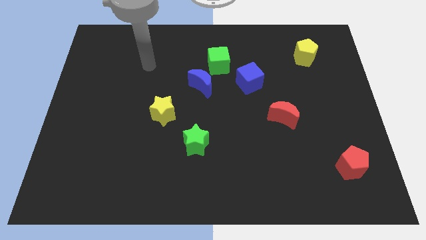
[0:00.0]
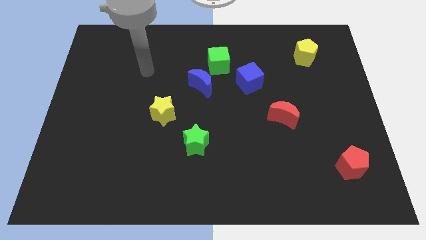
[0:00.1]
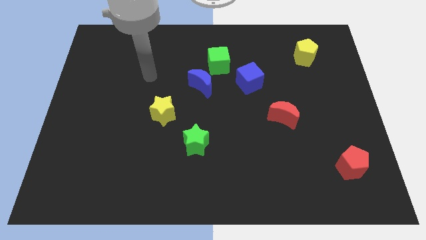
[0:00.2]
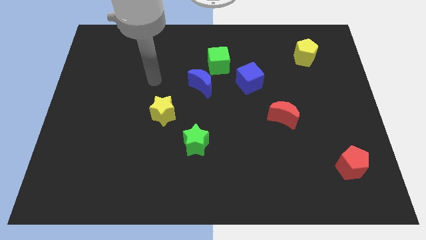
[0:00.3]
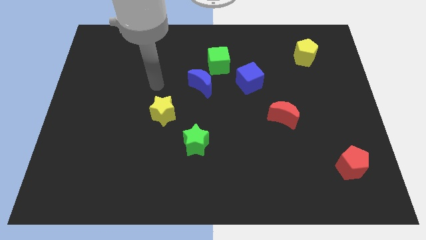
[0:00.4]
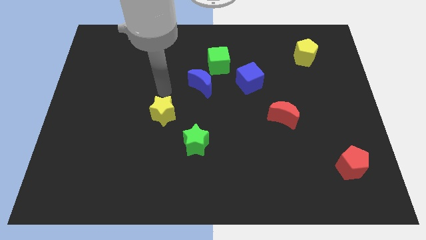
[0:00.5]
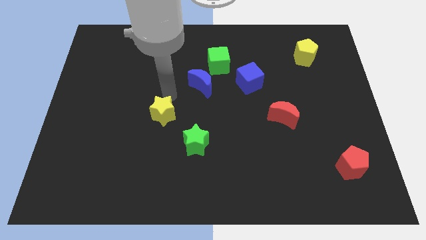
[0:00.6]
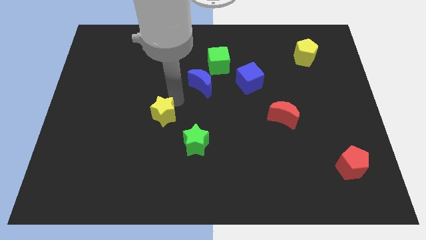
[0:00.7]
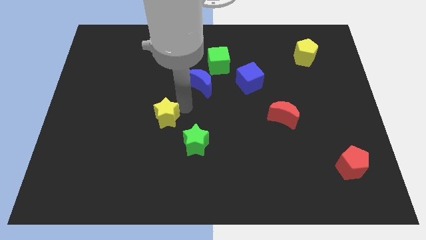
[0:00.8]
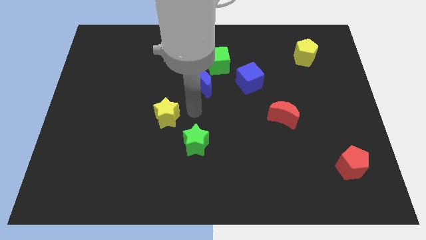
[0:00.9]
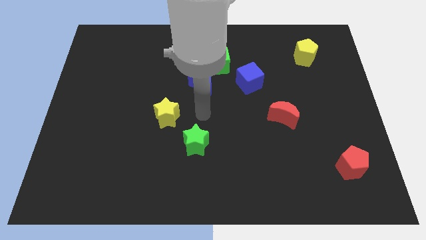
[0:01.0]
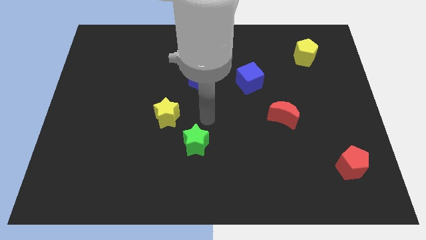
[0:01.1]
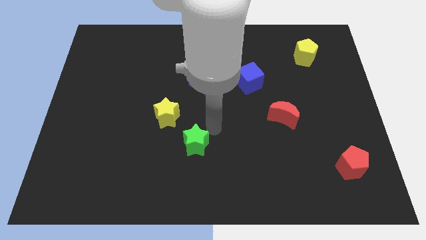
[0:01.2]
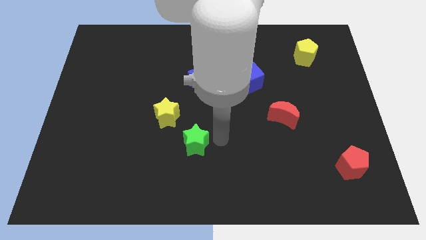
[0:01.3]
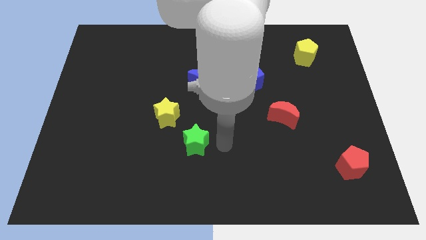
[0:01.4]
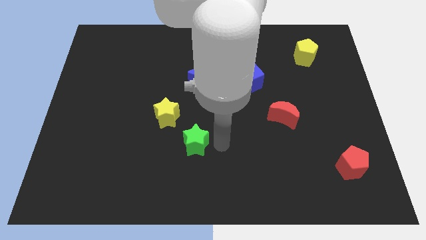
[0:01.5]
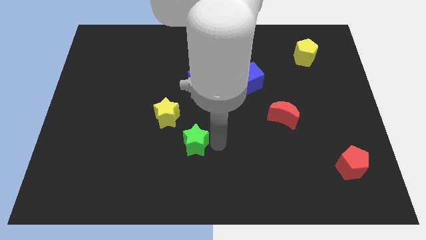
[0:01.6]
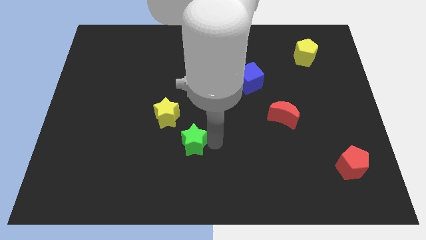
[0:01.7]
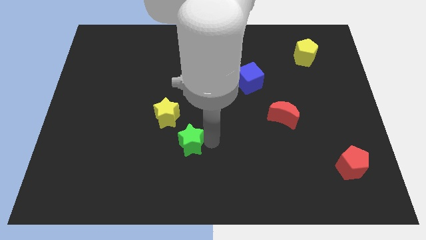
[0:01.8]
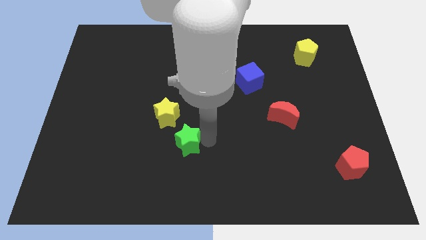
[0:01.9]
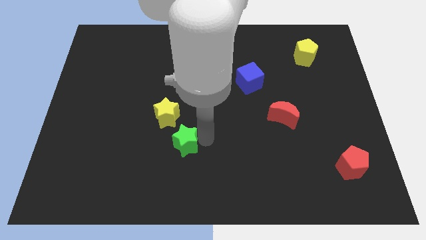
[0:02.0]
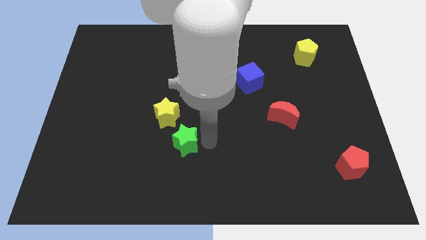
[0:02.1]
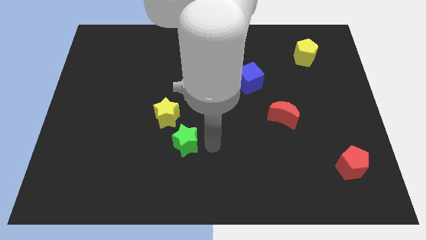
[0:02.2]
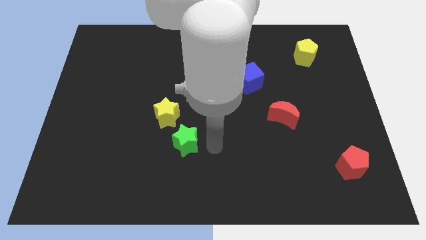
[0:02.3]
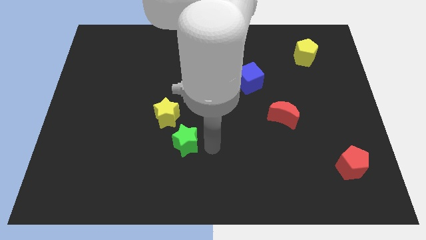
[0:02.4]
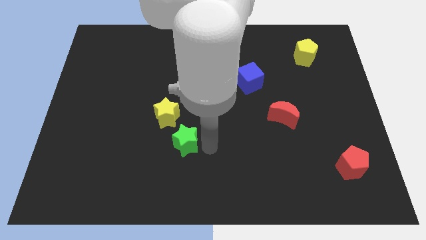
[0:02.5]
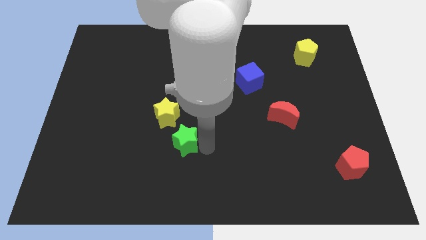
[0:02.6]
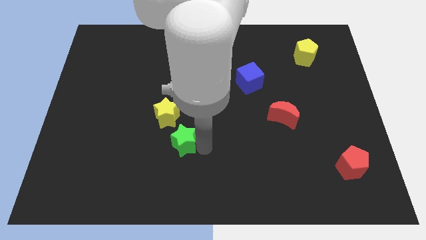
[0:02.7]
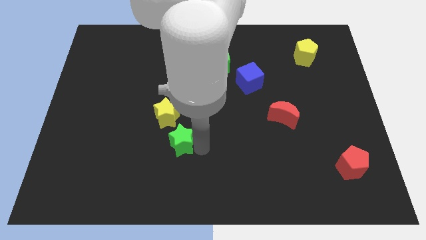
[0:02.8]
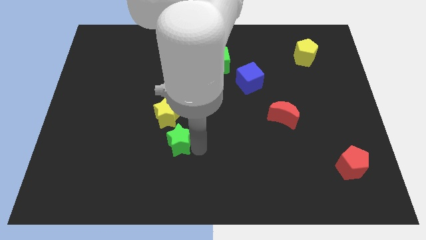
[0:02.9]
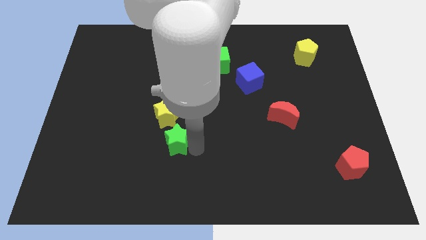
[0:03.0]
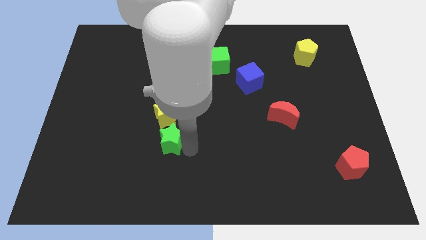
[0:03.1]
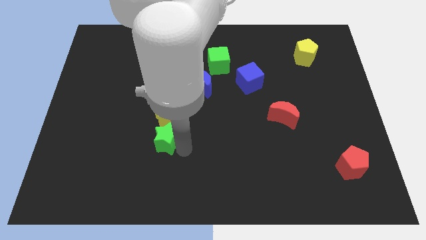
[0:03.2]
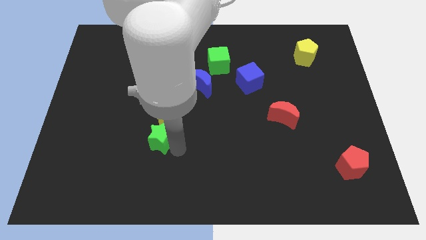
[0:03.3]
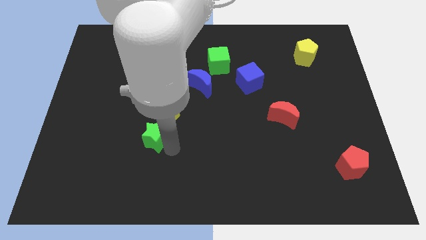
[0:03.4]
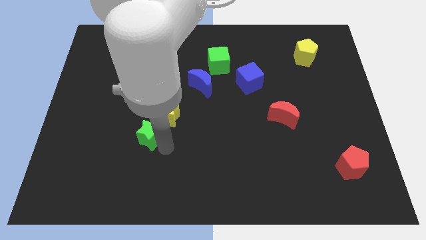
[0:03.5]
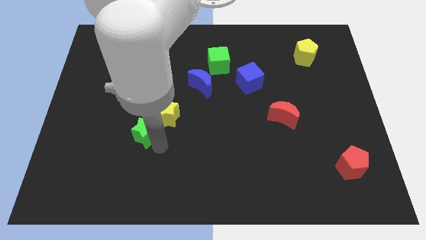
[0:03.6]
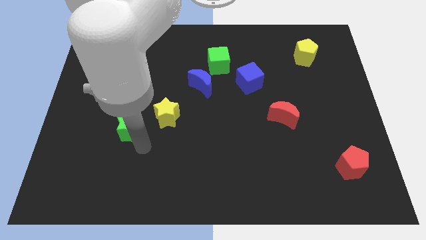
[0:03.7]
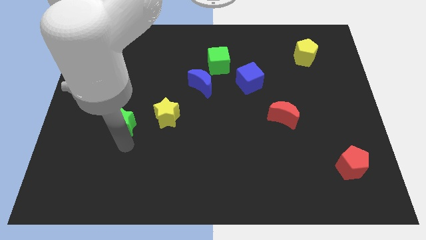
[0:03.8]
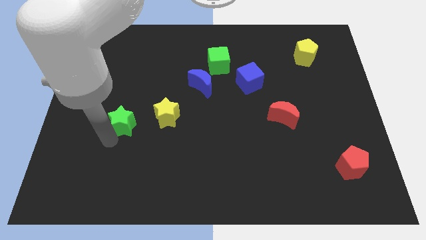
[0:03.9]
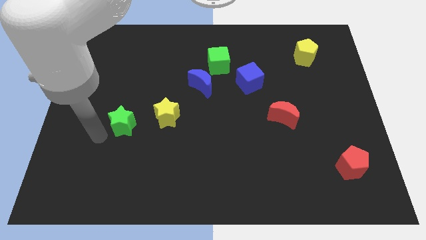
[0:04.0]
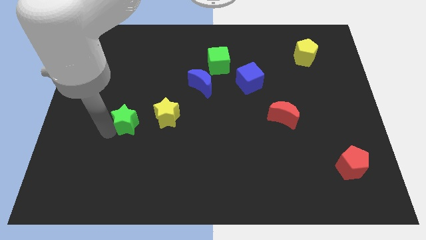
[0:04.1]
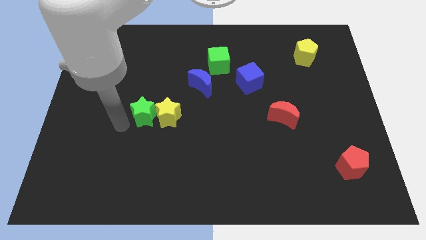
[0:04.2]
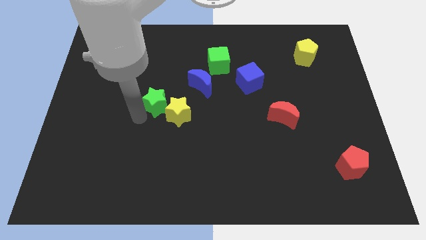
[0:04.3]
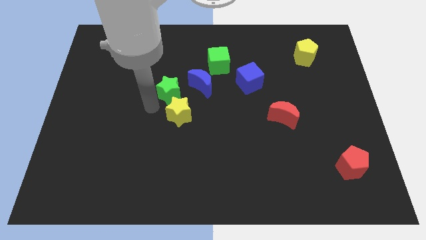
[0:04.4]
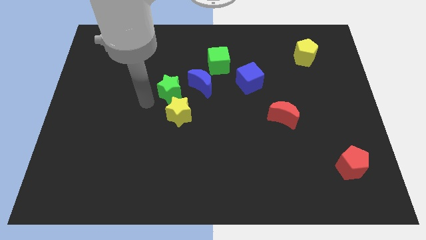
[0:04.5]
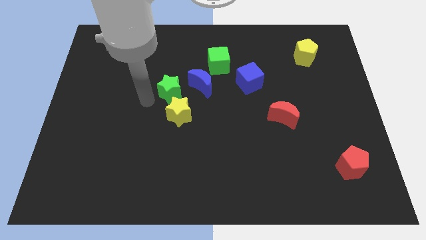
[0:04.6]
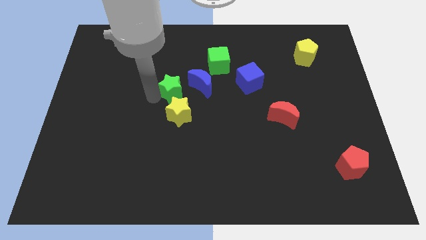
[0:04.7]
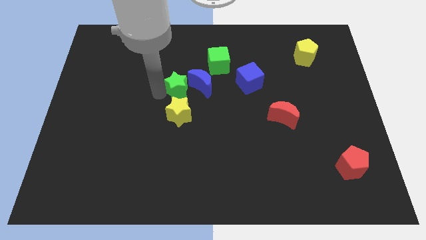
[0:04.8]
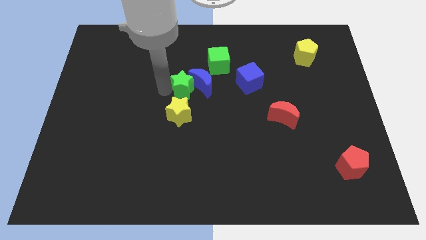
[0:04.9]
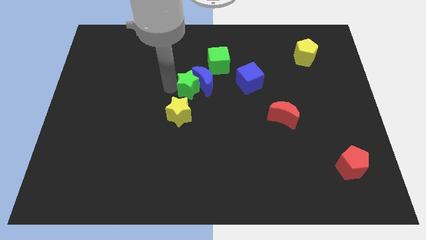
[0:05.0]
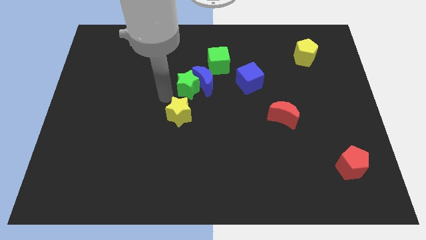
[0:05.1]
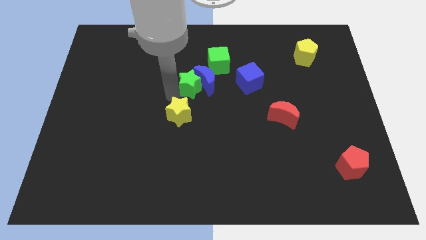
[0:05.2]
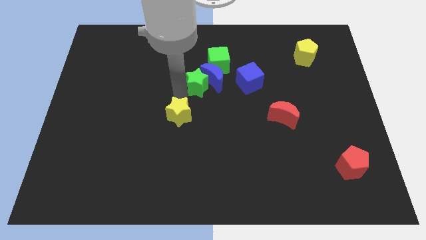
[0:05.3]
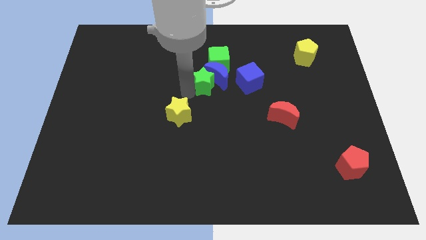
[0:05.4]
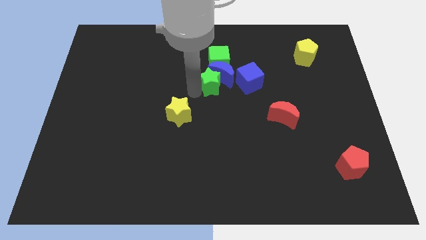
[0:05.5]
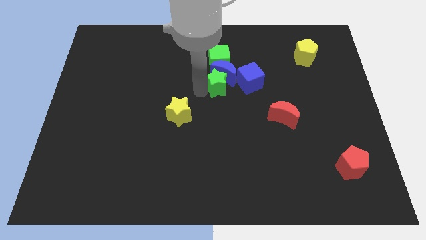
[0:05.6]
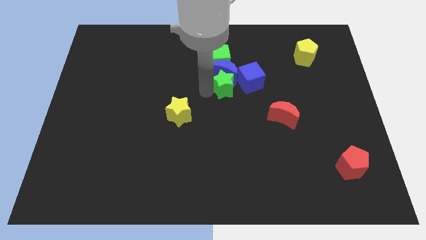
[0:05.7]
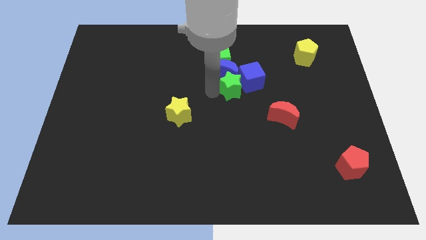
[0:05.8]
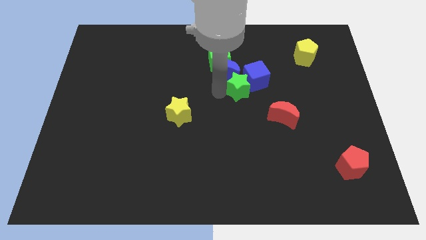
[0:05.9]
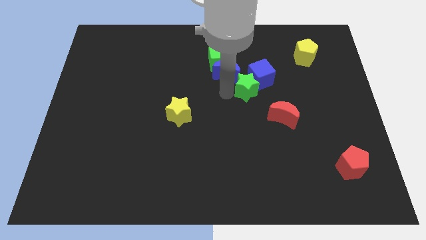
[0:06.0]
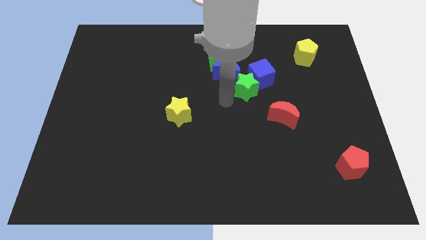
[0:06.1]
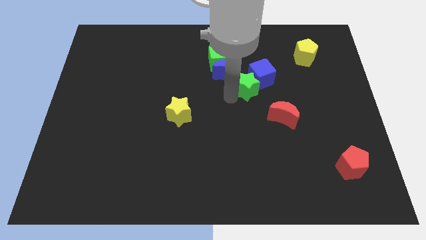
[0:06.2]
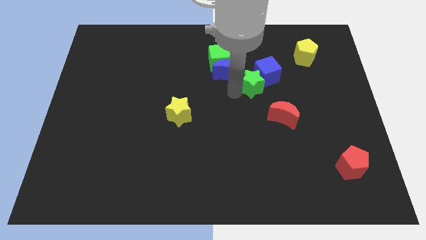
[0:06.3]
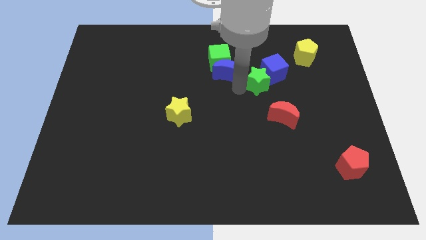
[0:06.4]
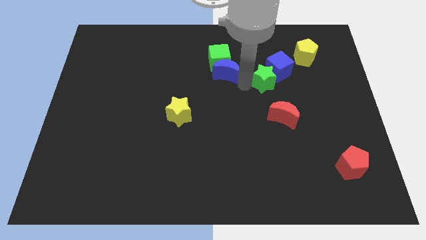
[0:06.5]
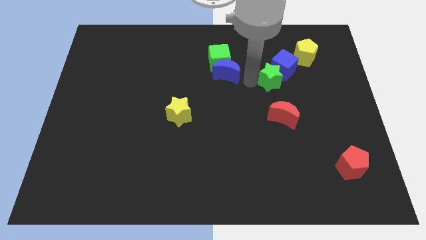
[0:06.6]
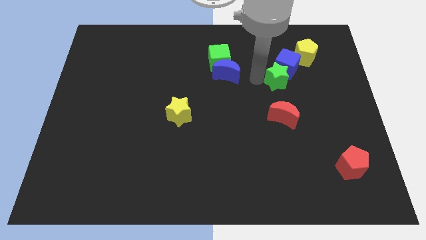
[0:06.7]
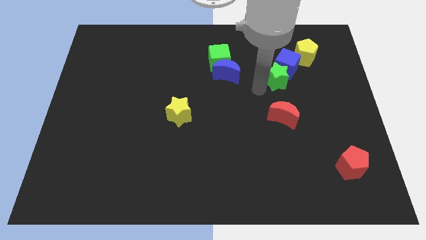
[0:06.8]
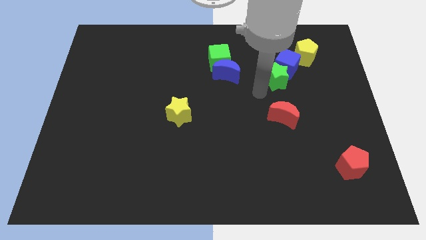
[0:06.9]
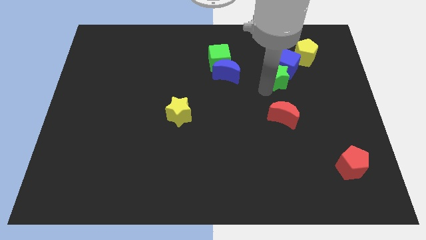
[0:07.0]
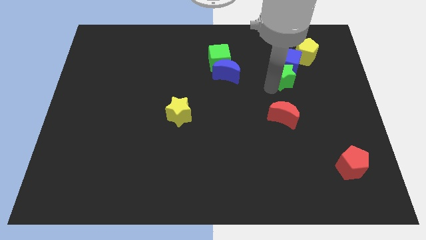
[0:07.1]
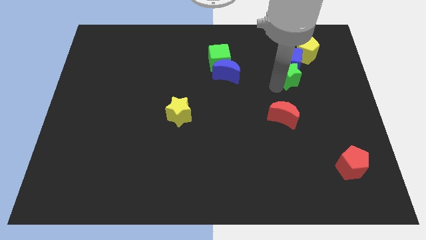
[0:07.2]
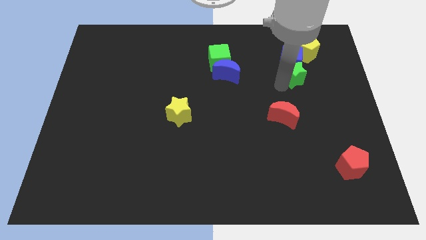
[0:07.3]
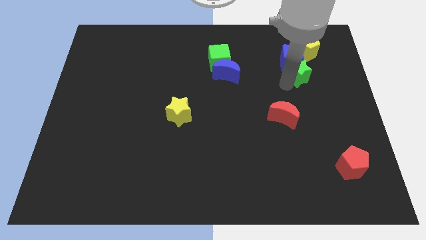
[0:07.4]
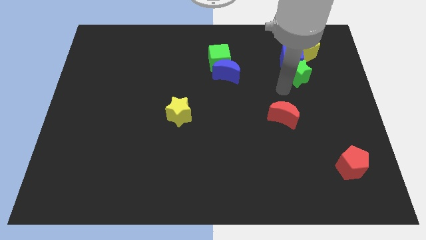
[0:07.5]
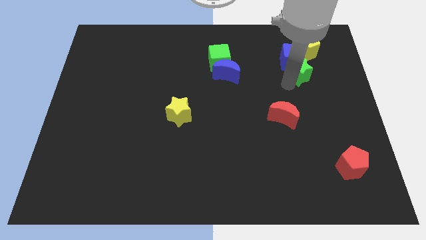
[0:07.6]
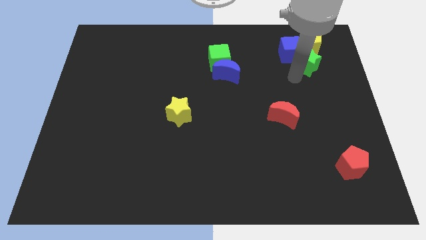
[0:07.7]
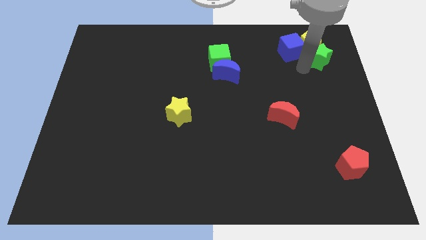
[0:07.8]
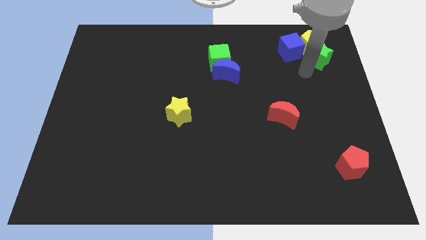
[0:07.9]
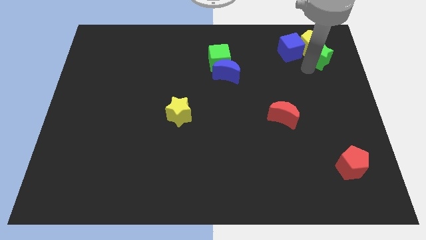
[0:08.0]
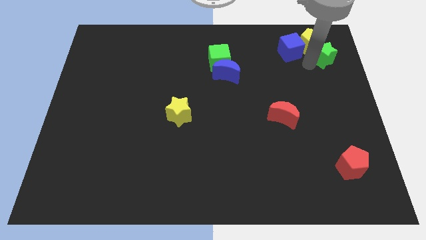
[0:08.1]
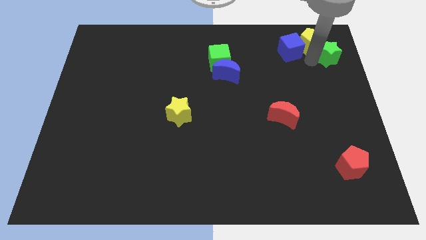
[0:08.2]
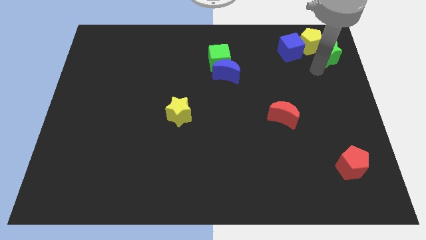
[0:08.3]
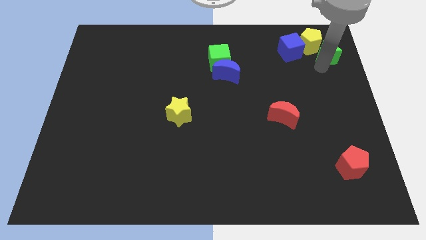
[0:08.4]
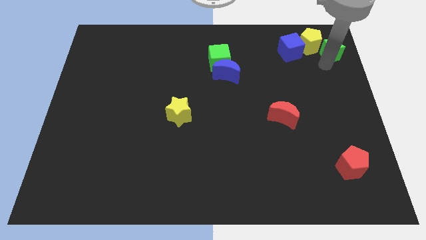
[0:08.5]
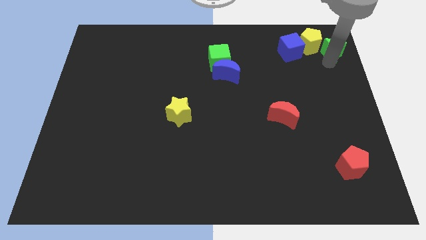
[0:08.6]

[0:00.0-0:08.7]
slide the green star to the top right of the board
